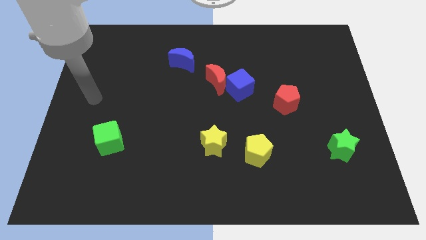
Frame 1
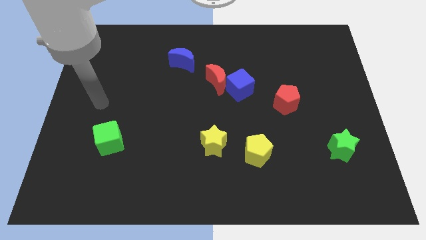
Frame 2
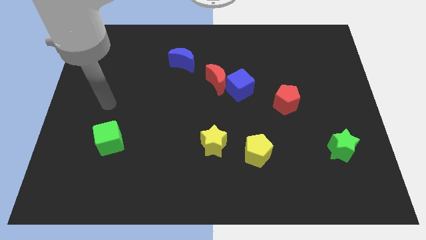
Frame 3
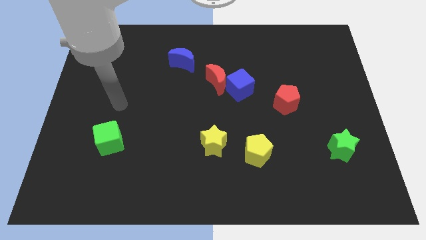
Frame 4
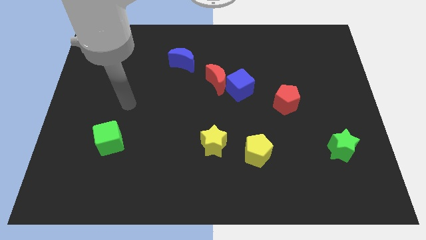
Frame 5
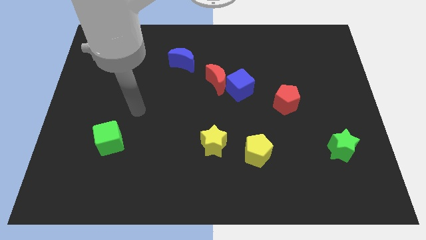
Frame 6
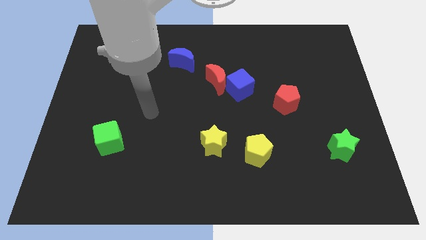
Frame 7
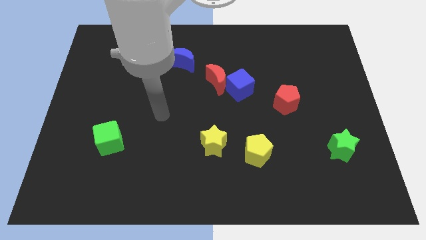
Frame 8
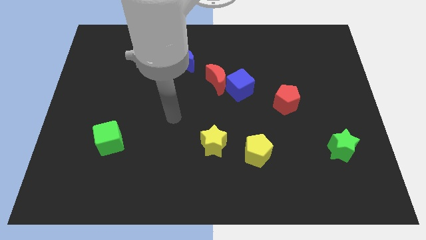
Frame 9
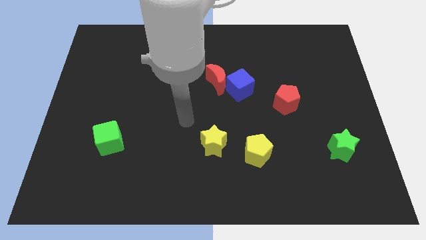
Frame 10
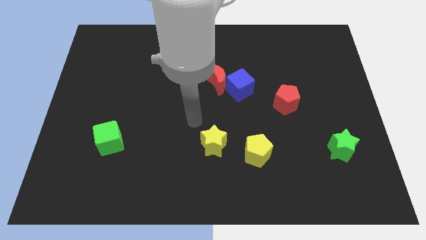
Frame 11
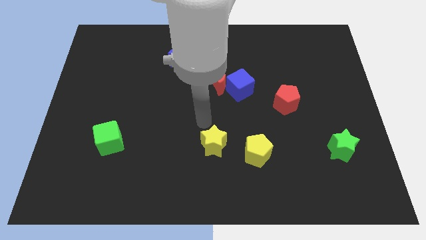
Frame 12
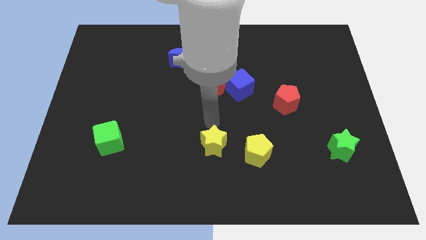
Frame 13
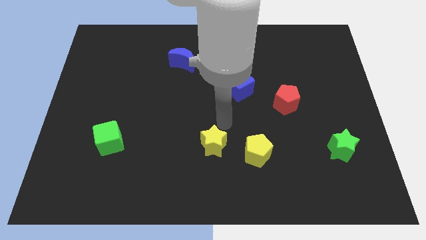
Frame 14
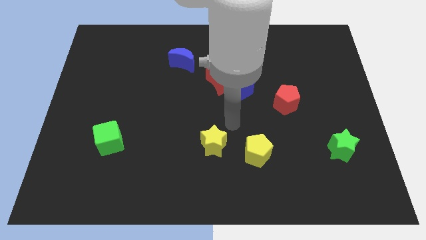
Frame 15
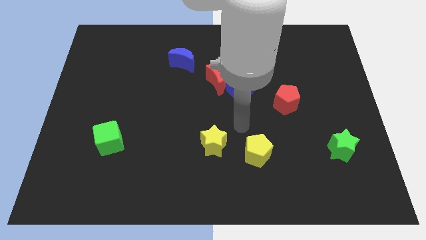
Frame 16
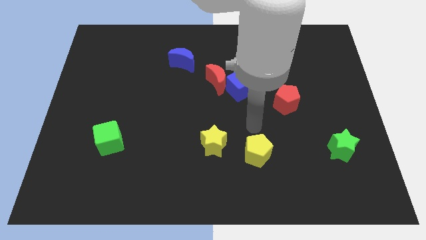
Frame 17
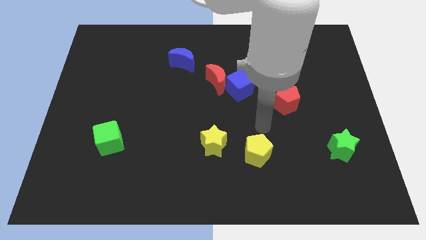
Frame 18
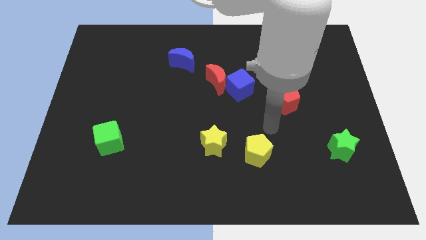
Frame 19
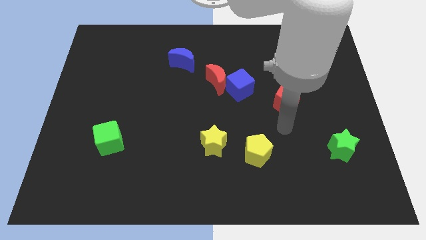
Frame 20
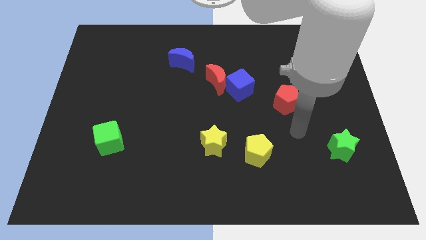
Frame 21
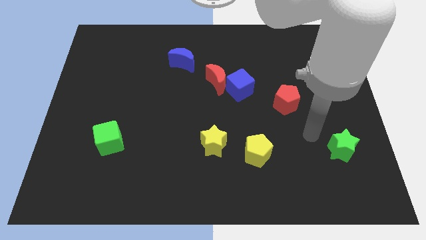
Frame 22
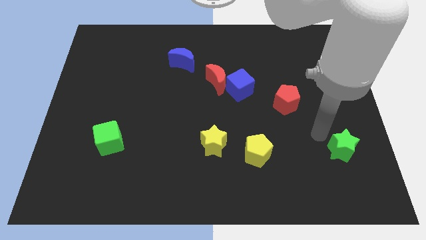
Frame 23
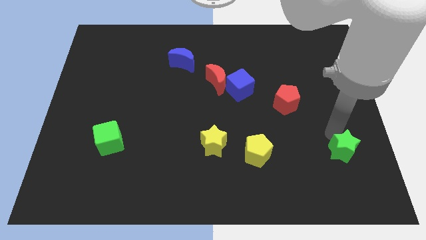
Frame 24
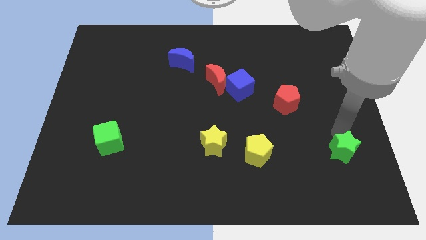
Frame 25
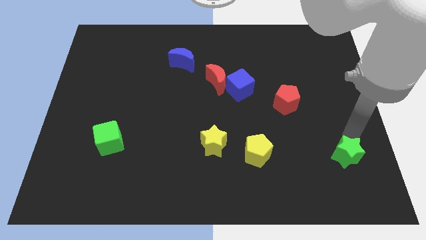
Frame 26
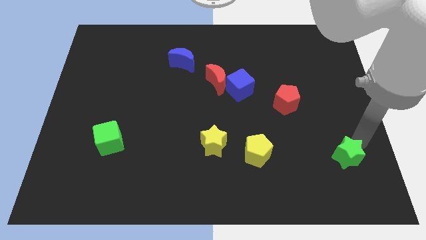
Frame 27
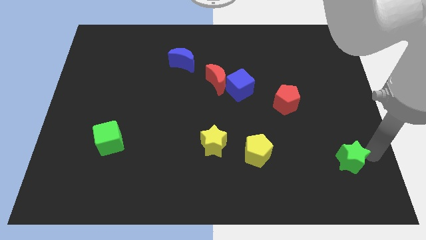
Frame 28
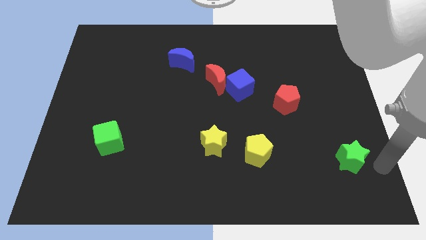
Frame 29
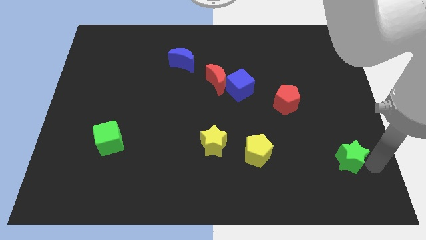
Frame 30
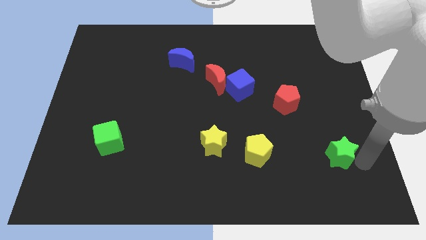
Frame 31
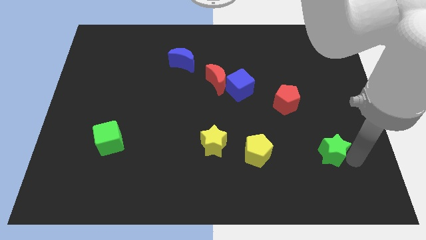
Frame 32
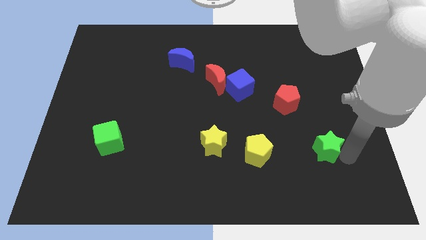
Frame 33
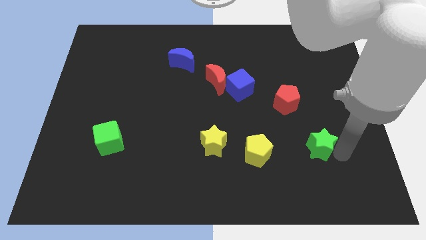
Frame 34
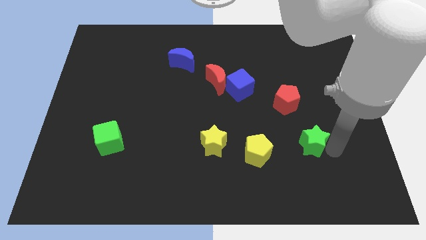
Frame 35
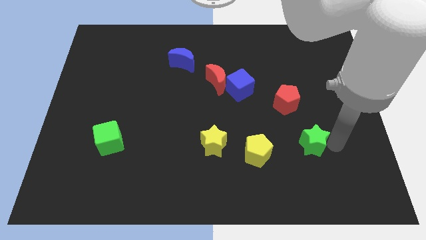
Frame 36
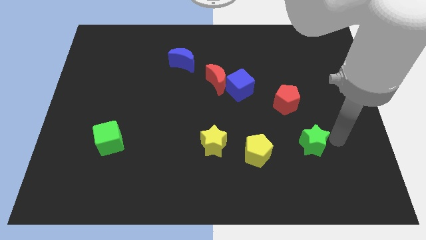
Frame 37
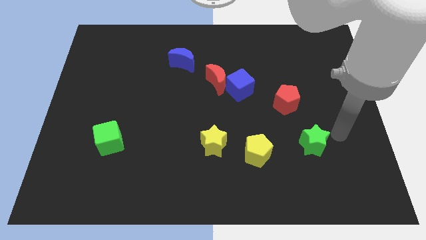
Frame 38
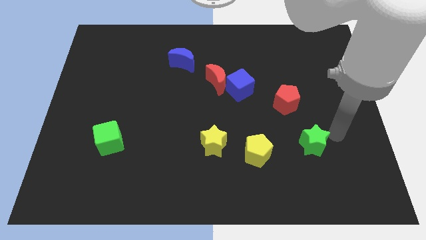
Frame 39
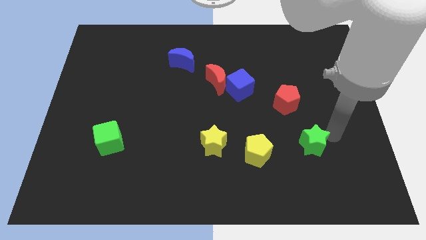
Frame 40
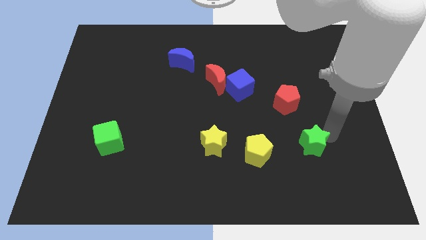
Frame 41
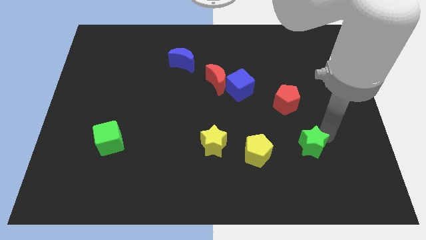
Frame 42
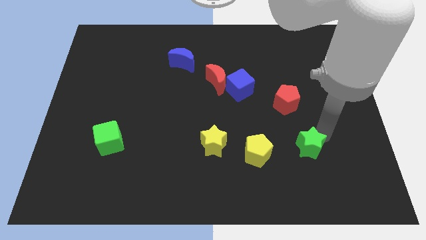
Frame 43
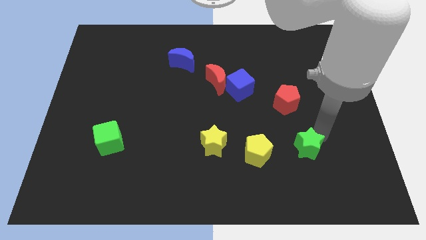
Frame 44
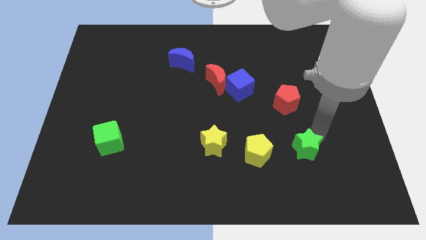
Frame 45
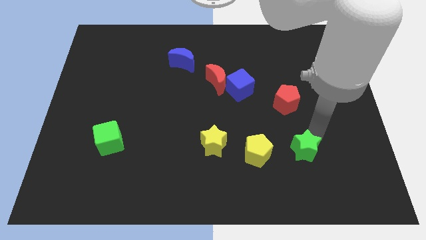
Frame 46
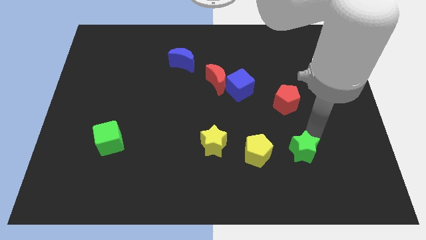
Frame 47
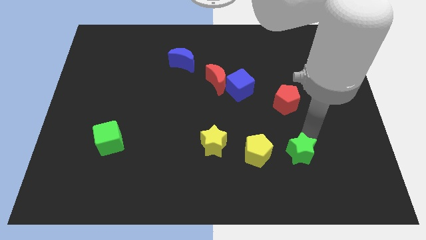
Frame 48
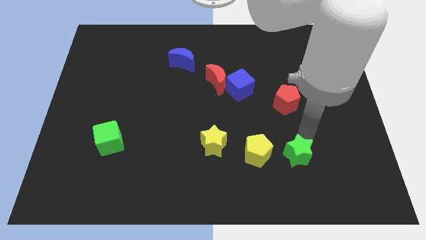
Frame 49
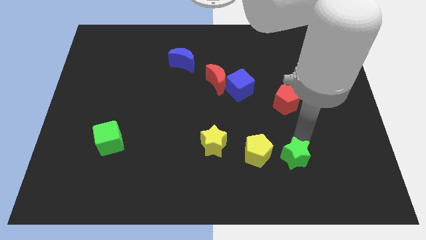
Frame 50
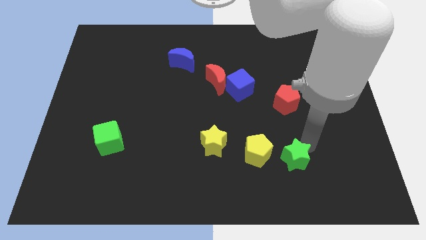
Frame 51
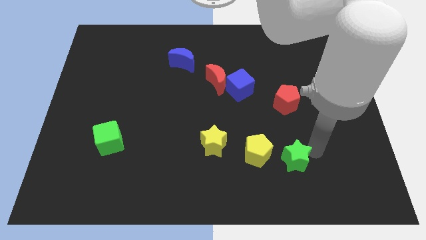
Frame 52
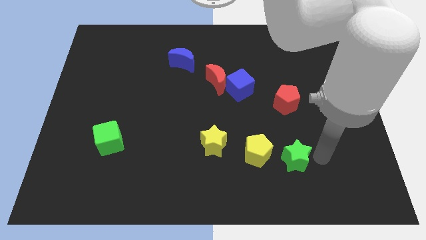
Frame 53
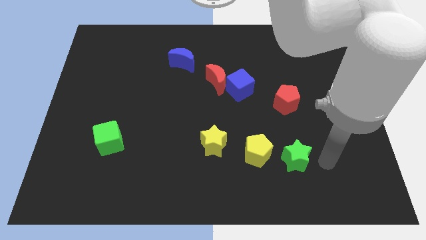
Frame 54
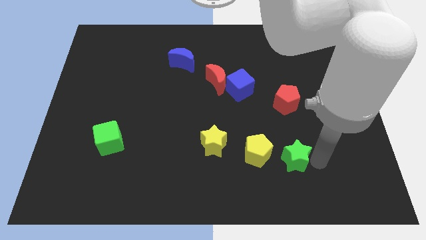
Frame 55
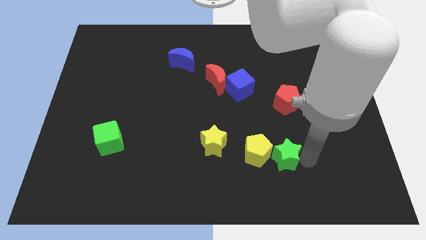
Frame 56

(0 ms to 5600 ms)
move the green star close to the yellow pentagon

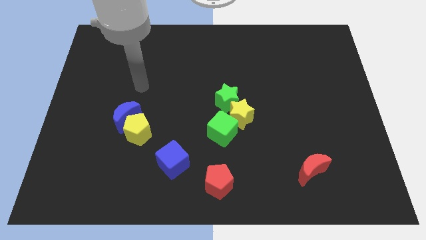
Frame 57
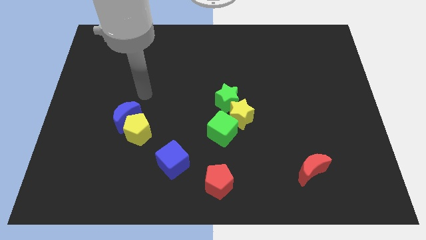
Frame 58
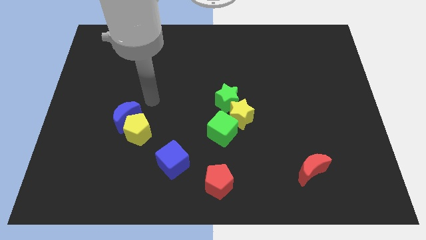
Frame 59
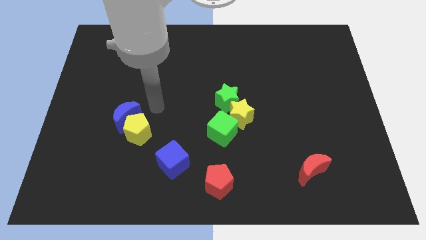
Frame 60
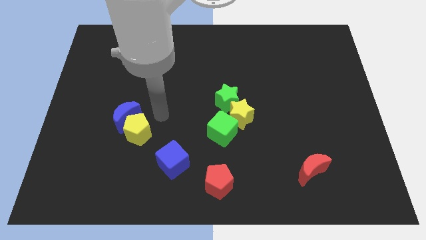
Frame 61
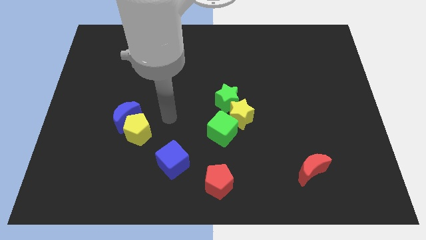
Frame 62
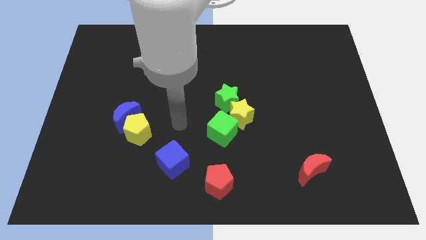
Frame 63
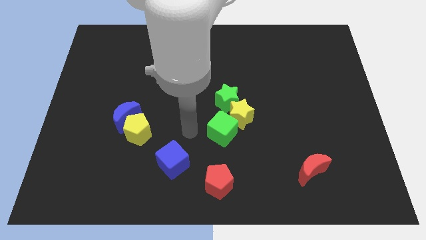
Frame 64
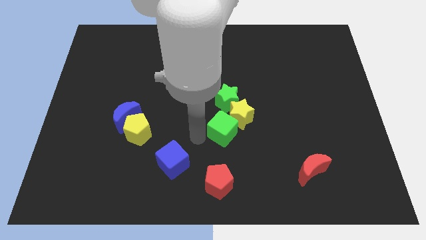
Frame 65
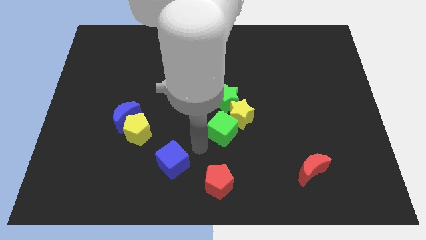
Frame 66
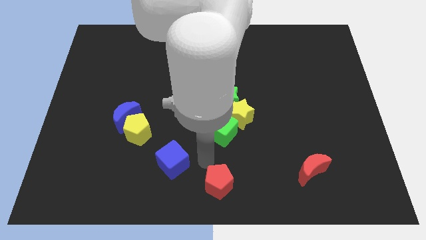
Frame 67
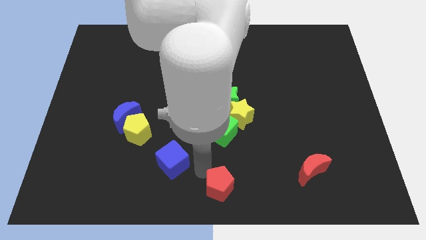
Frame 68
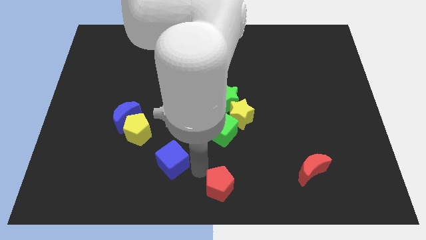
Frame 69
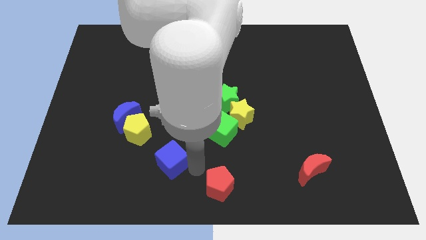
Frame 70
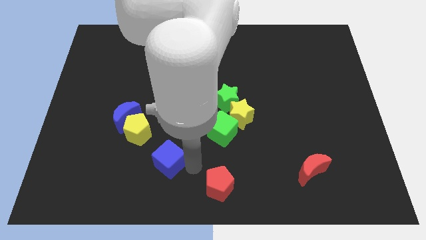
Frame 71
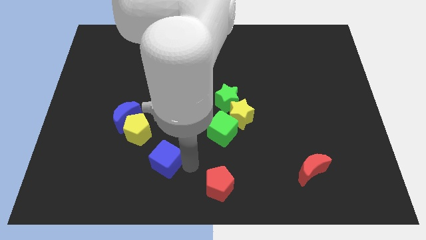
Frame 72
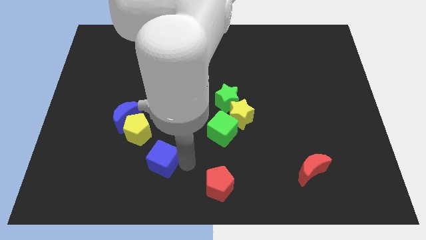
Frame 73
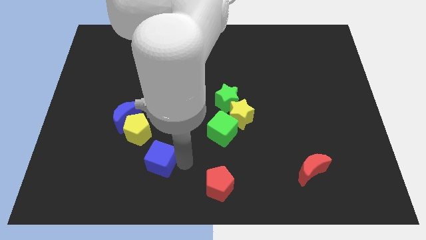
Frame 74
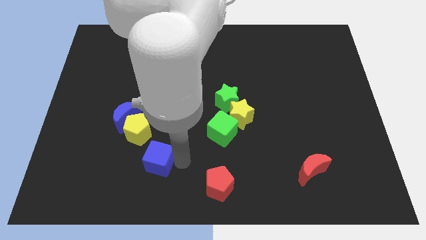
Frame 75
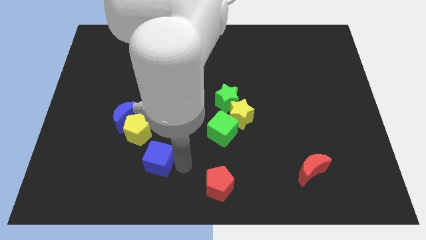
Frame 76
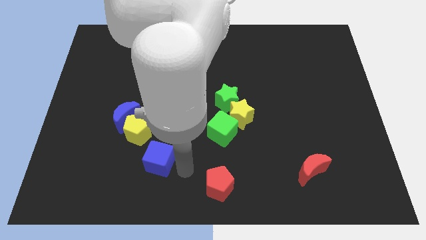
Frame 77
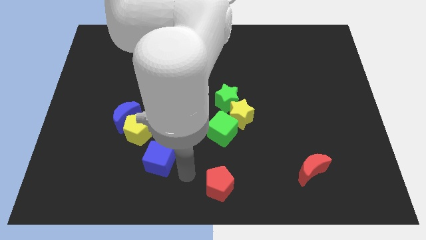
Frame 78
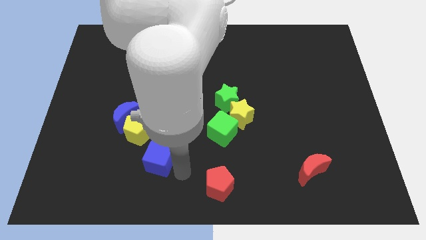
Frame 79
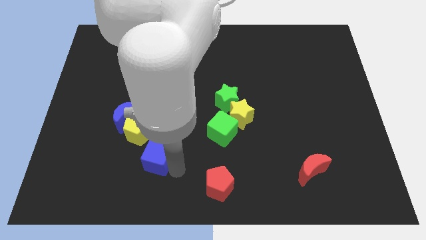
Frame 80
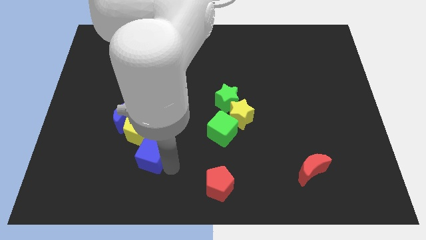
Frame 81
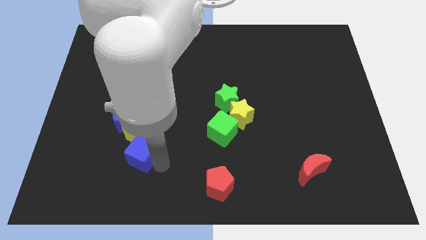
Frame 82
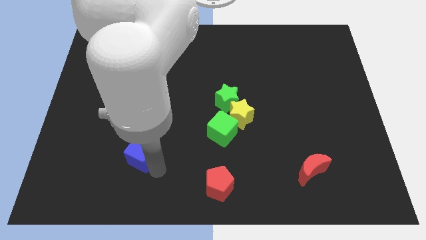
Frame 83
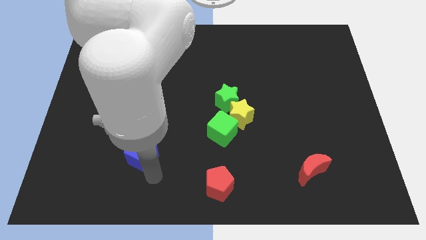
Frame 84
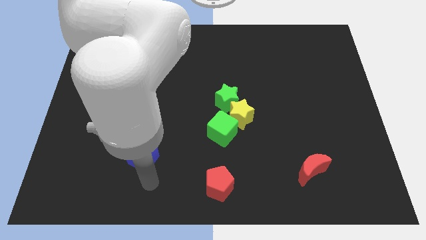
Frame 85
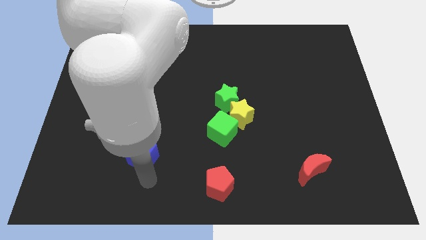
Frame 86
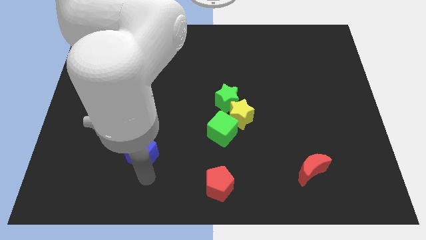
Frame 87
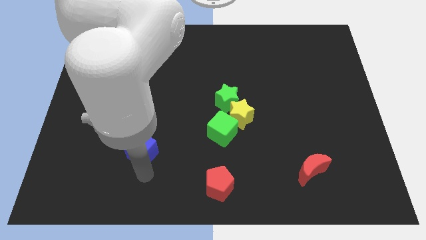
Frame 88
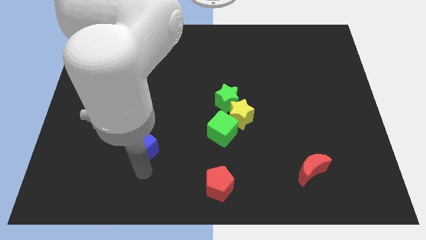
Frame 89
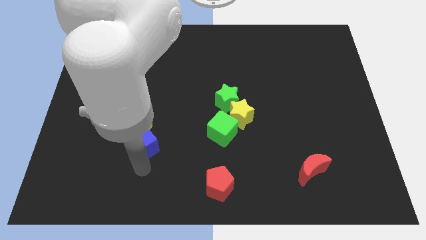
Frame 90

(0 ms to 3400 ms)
slide the blue cube towards the yellow pentagon
